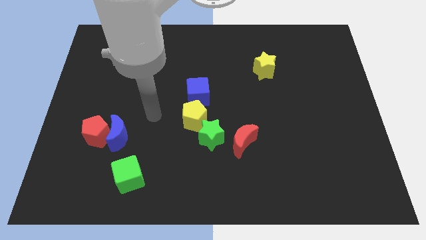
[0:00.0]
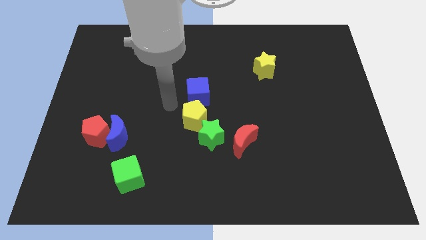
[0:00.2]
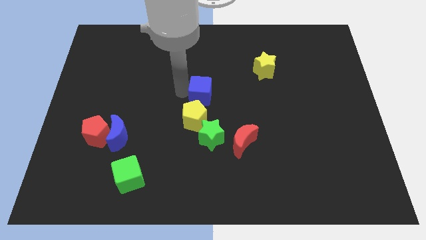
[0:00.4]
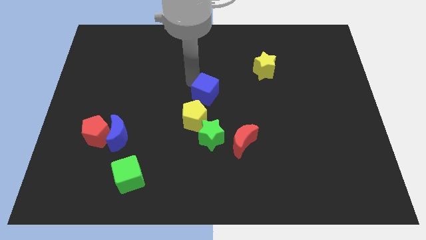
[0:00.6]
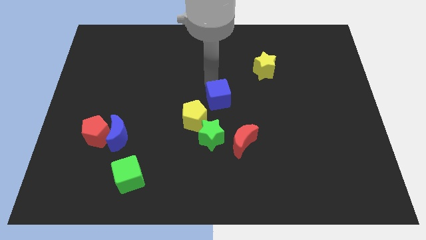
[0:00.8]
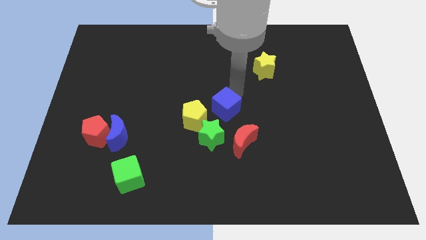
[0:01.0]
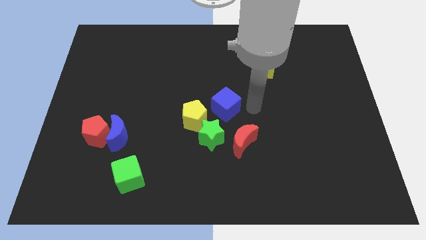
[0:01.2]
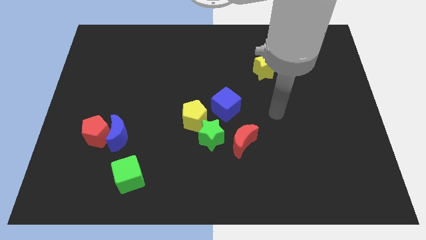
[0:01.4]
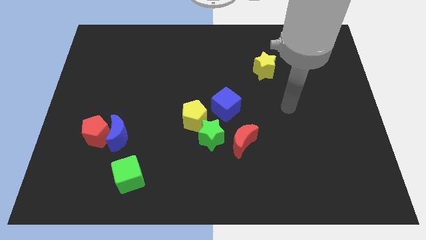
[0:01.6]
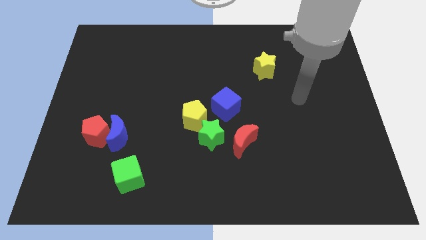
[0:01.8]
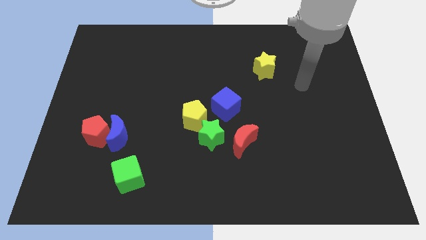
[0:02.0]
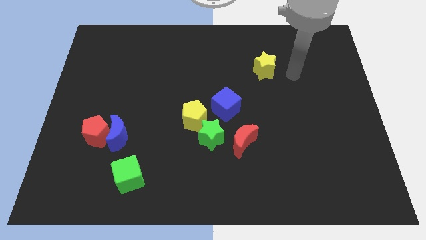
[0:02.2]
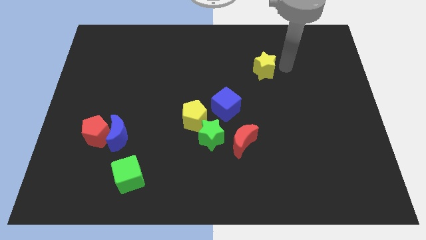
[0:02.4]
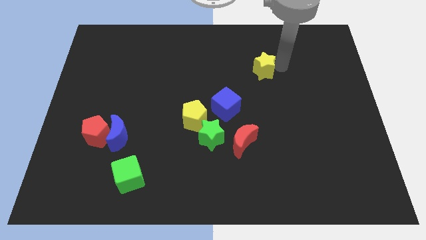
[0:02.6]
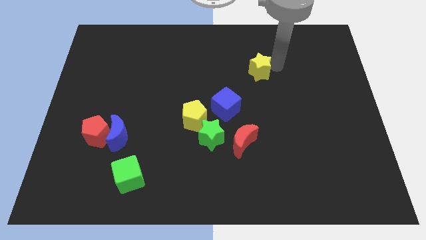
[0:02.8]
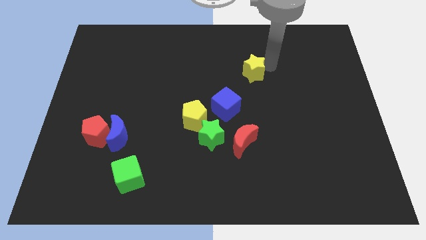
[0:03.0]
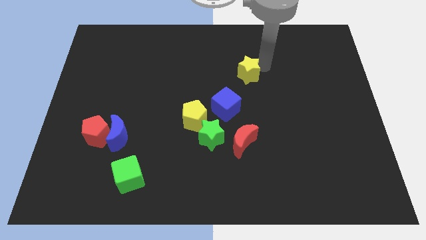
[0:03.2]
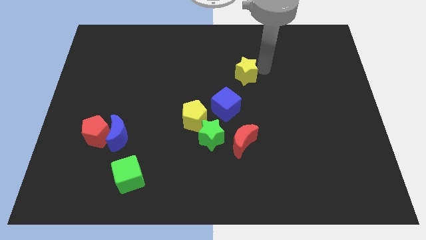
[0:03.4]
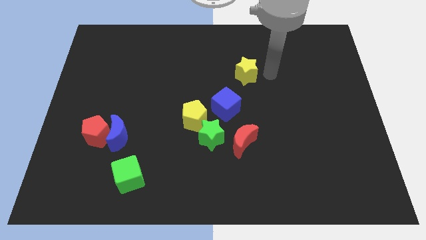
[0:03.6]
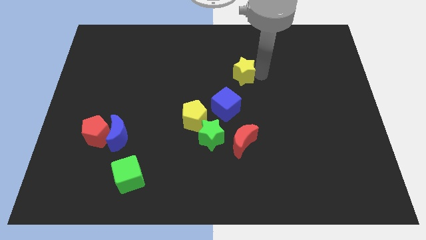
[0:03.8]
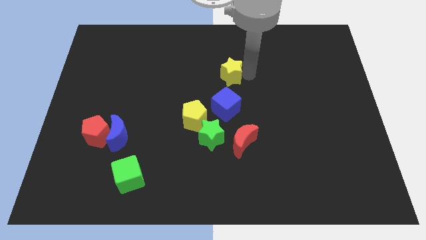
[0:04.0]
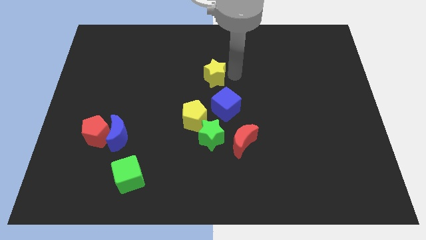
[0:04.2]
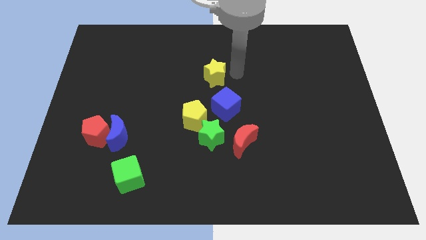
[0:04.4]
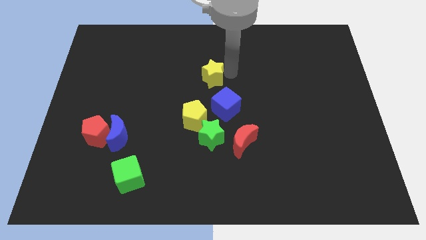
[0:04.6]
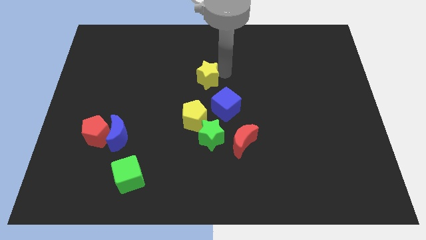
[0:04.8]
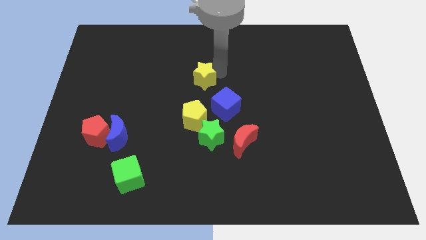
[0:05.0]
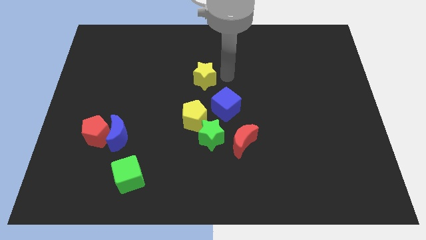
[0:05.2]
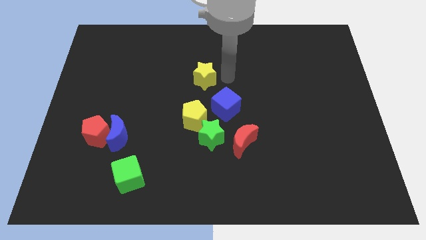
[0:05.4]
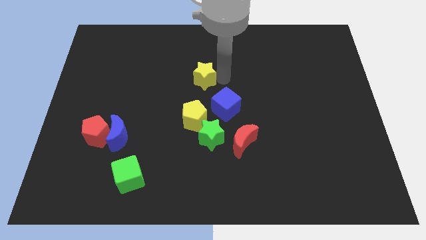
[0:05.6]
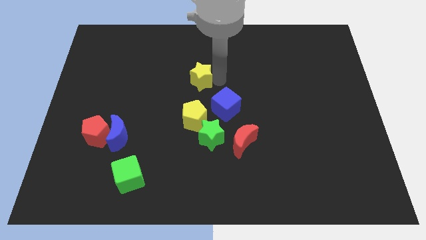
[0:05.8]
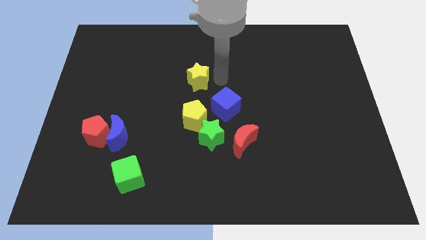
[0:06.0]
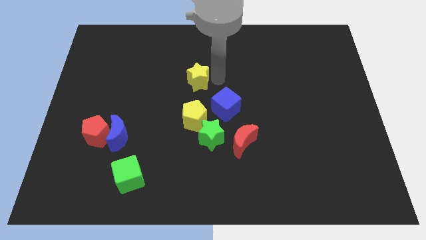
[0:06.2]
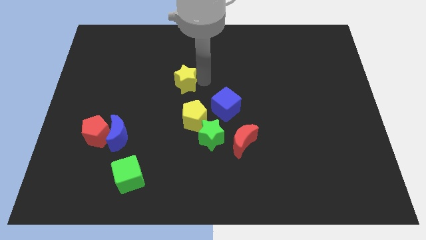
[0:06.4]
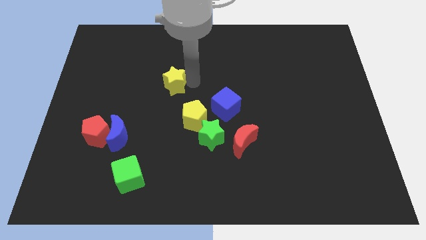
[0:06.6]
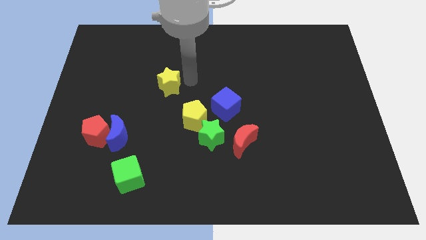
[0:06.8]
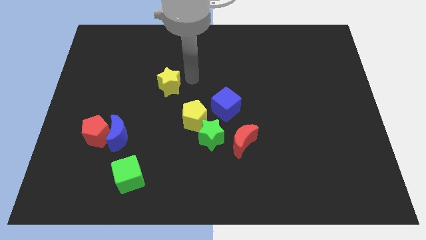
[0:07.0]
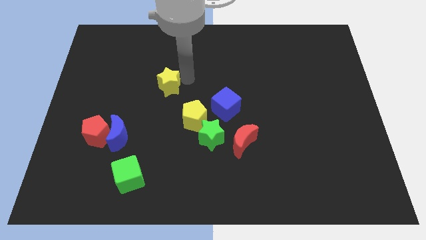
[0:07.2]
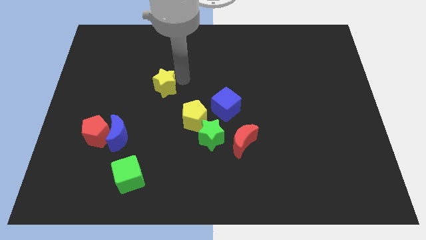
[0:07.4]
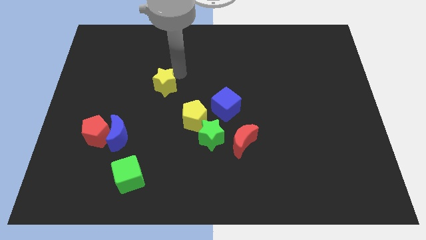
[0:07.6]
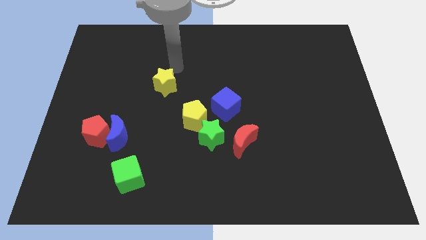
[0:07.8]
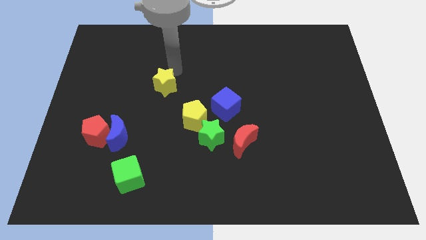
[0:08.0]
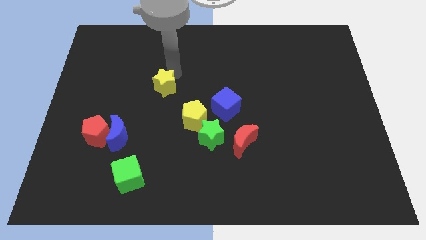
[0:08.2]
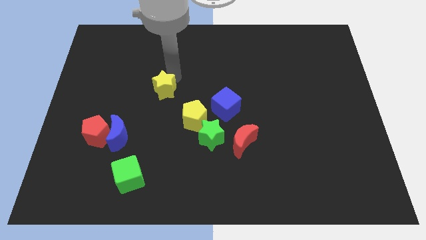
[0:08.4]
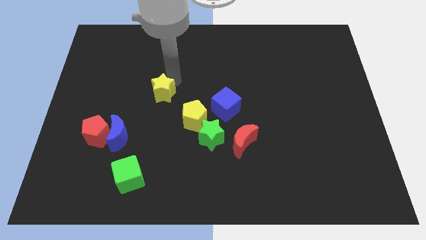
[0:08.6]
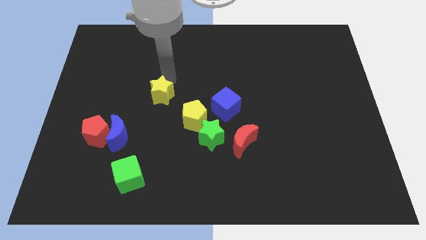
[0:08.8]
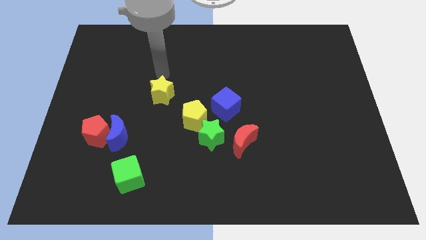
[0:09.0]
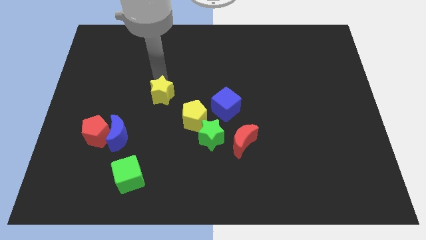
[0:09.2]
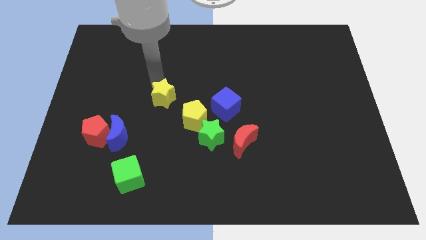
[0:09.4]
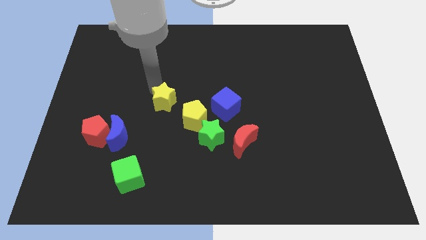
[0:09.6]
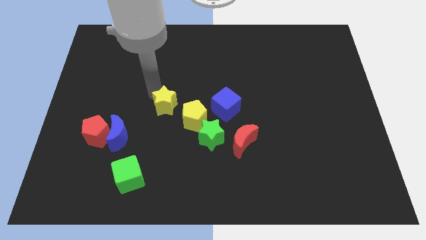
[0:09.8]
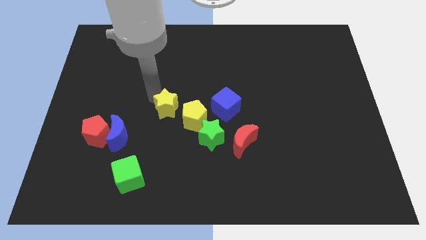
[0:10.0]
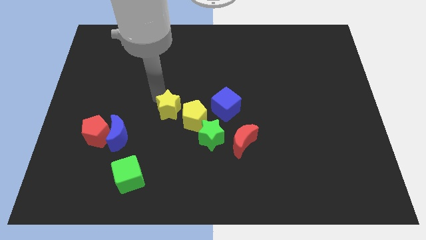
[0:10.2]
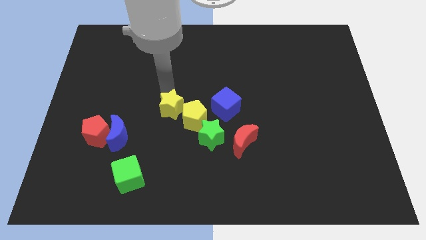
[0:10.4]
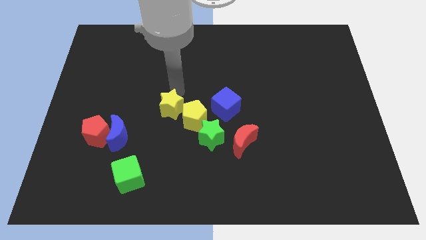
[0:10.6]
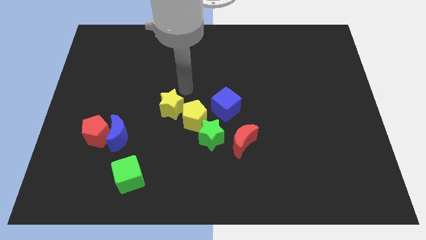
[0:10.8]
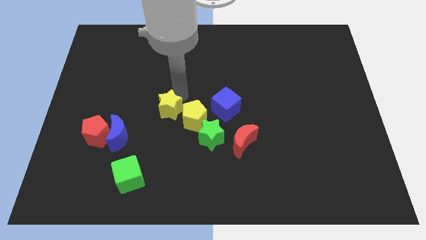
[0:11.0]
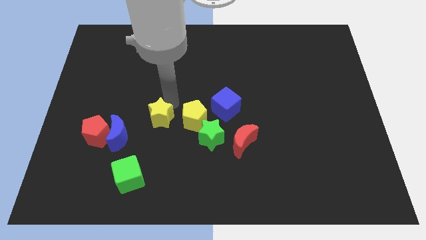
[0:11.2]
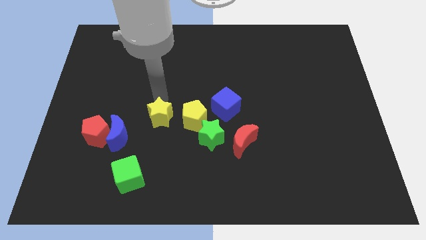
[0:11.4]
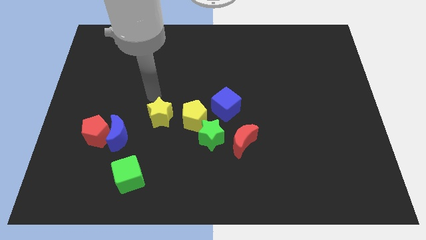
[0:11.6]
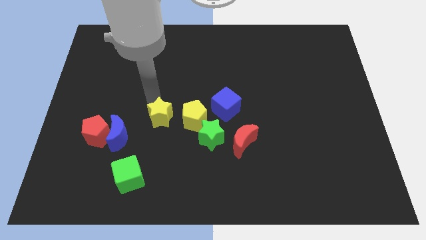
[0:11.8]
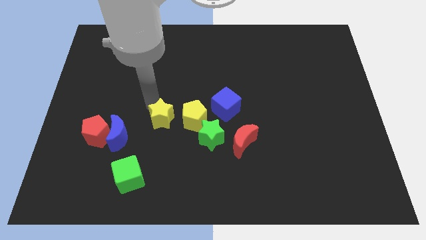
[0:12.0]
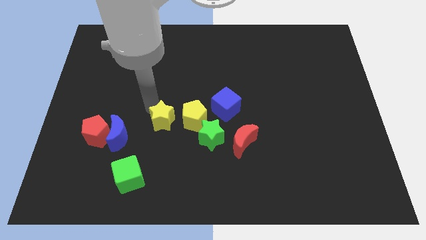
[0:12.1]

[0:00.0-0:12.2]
put the yellow star to the right side of the blue moon

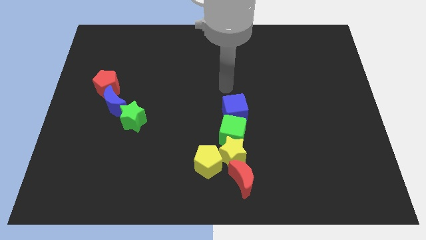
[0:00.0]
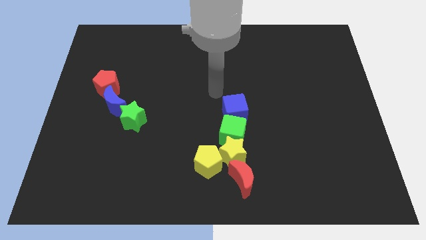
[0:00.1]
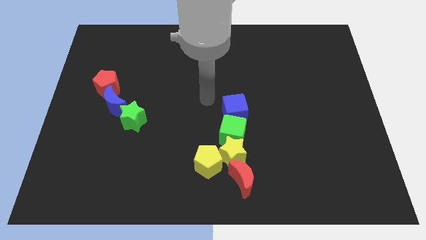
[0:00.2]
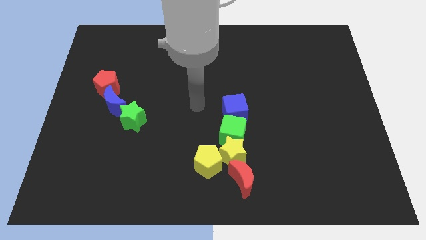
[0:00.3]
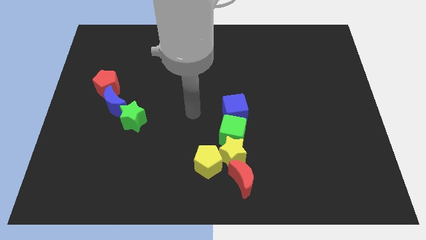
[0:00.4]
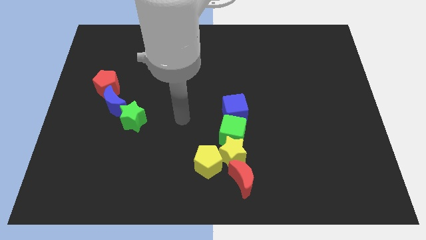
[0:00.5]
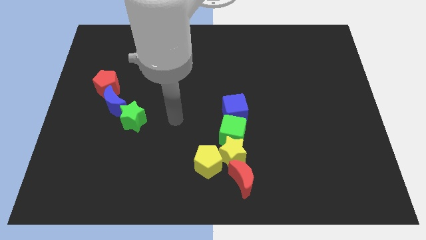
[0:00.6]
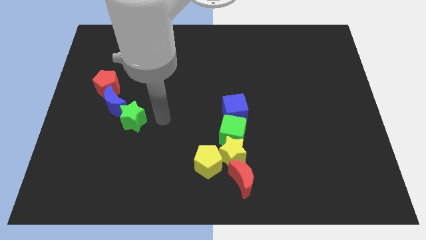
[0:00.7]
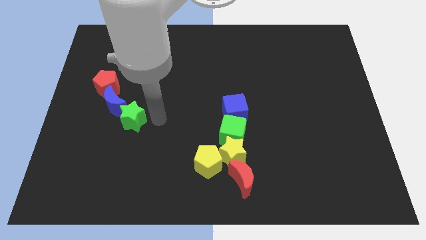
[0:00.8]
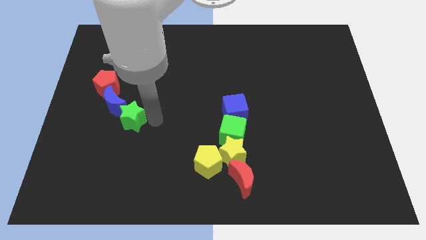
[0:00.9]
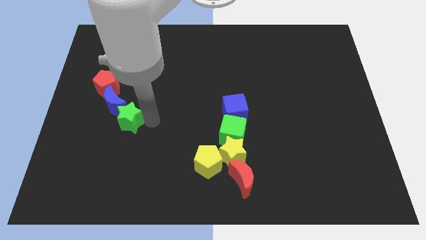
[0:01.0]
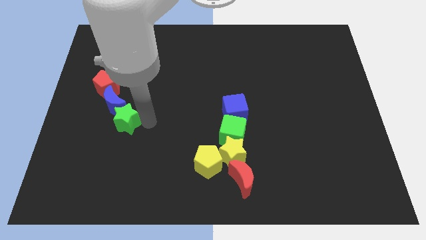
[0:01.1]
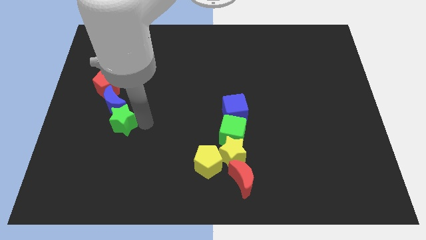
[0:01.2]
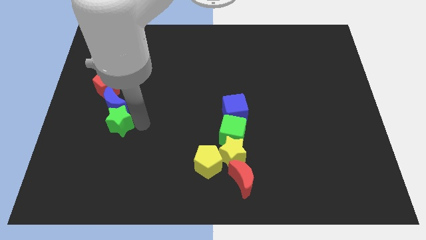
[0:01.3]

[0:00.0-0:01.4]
move the green star to the bottom of the red pentagon
